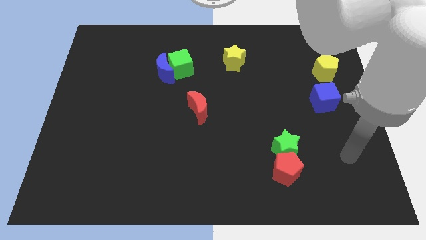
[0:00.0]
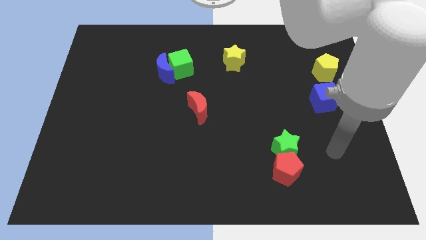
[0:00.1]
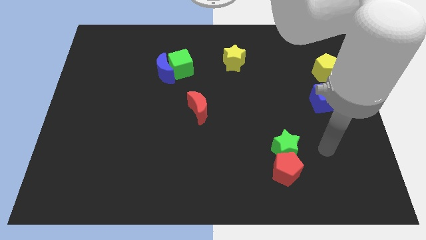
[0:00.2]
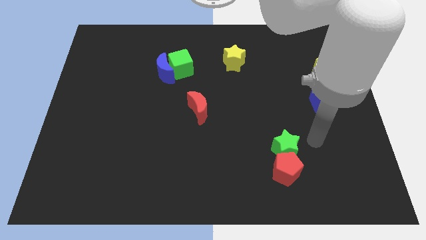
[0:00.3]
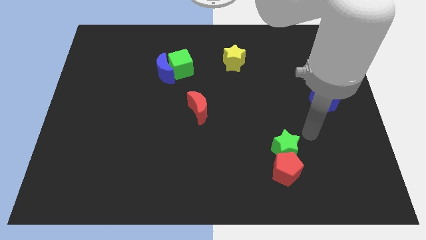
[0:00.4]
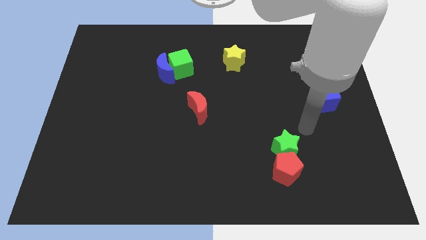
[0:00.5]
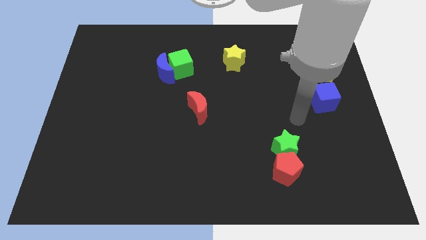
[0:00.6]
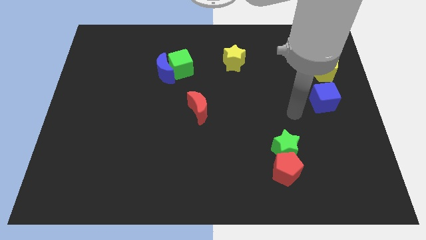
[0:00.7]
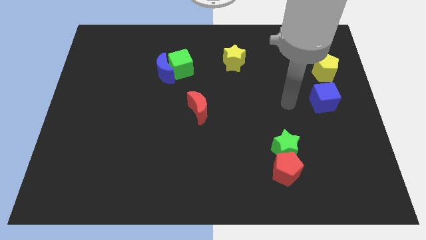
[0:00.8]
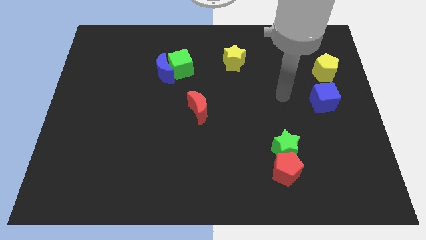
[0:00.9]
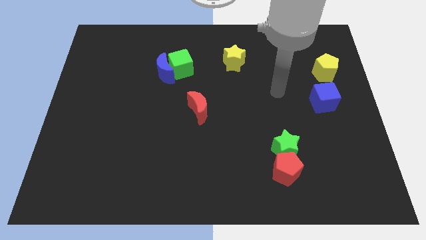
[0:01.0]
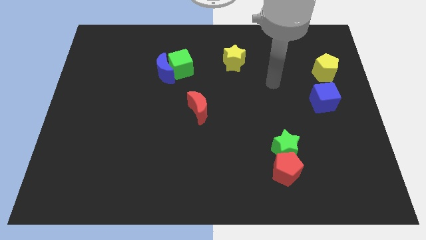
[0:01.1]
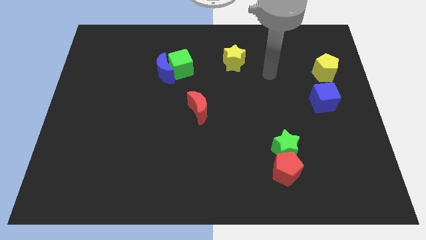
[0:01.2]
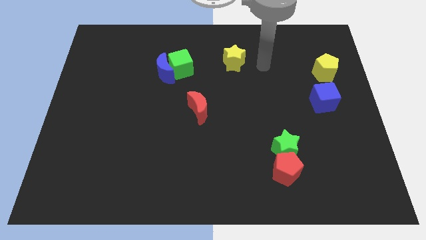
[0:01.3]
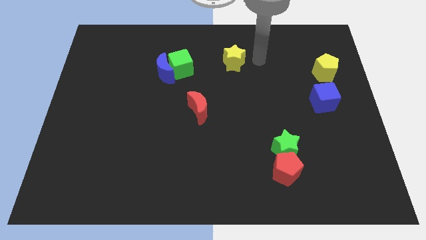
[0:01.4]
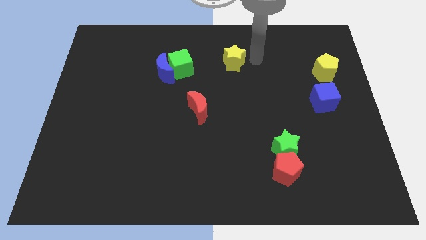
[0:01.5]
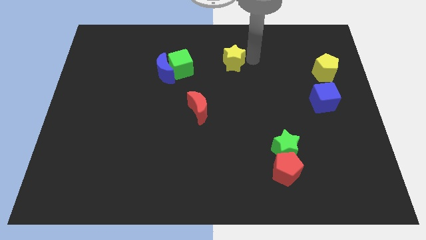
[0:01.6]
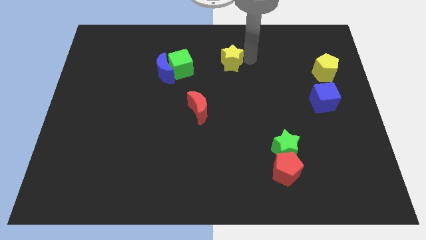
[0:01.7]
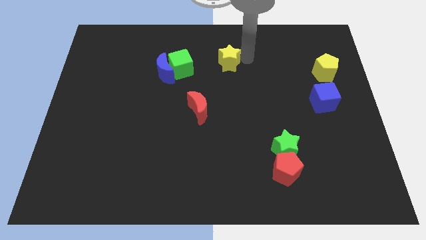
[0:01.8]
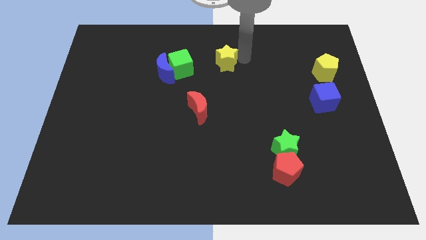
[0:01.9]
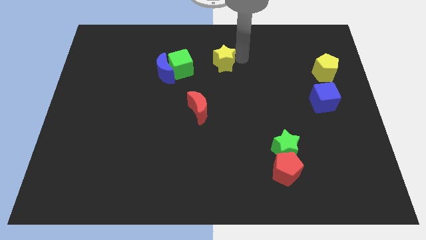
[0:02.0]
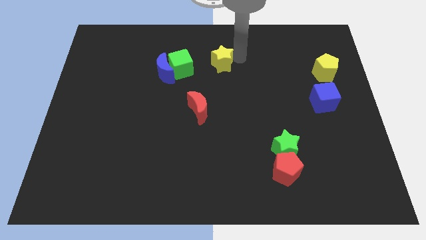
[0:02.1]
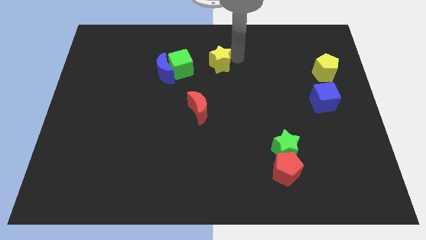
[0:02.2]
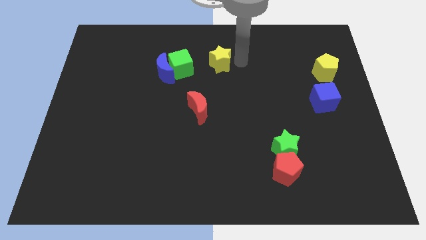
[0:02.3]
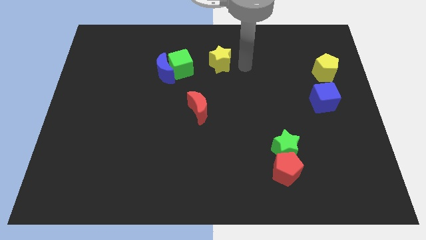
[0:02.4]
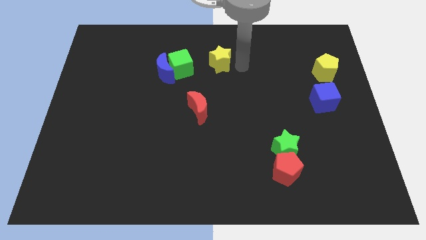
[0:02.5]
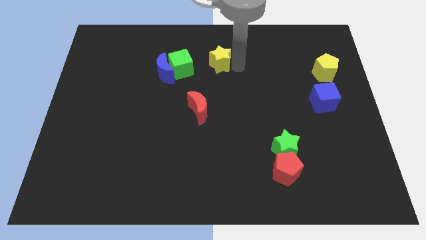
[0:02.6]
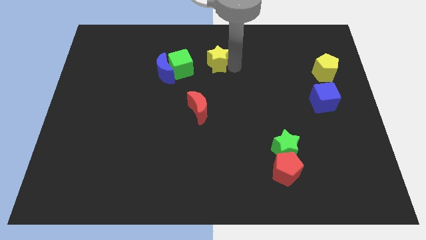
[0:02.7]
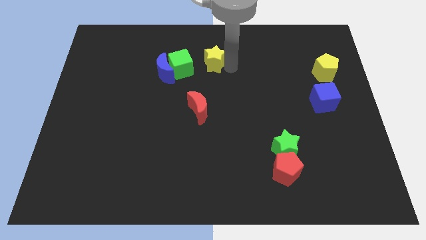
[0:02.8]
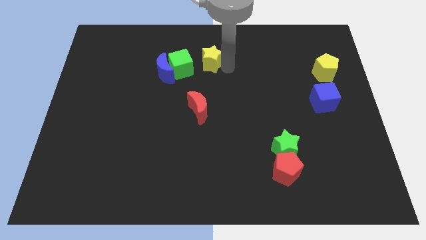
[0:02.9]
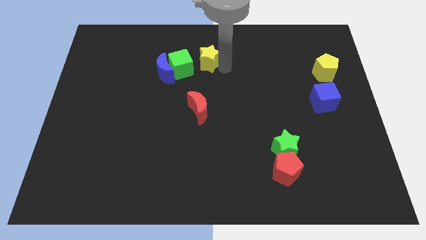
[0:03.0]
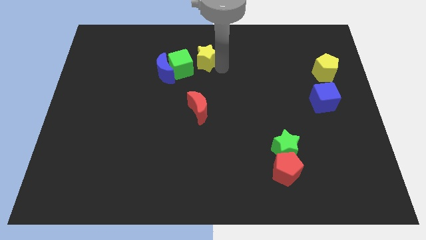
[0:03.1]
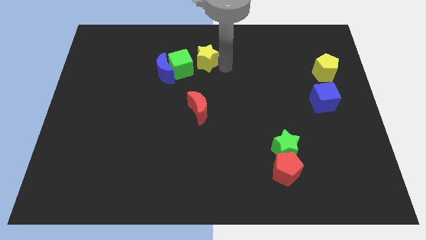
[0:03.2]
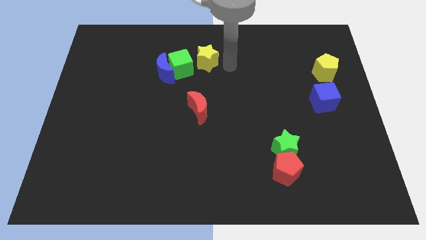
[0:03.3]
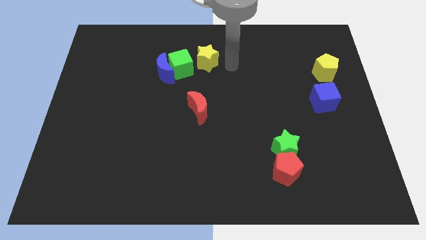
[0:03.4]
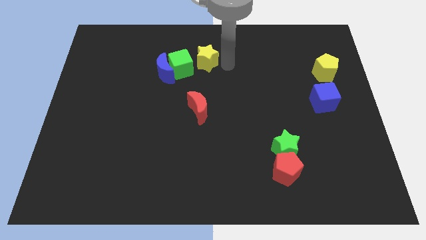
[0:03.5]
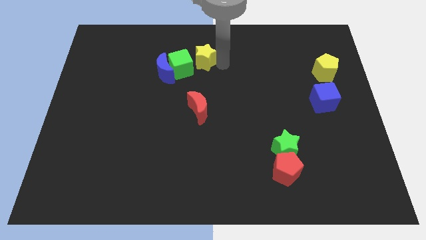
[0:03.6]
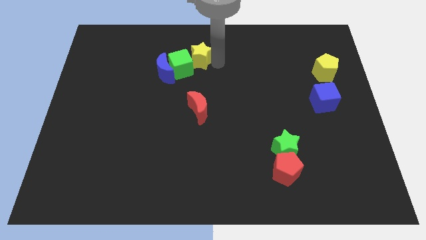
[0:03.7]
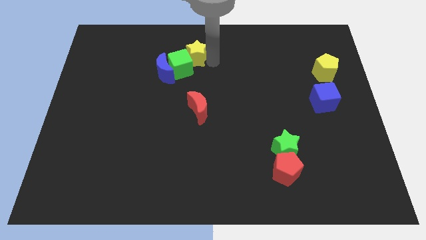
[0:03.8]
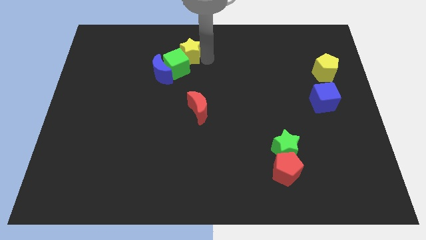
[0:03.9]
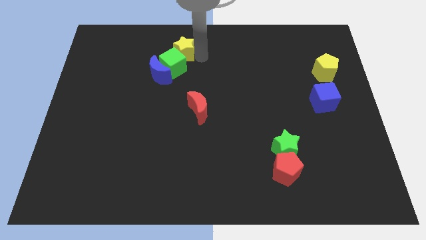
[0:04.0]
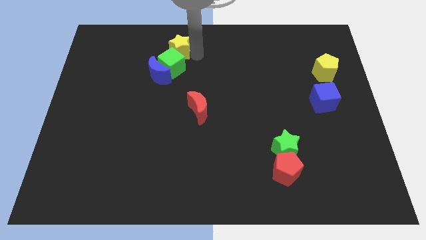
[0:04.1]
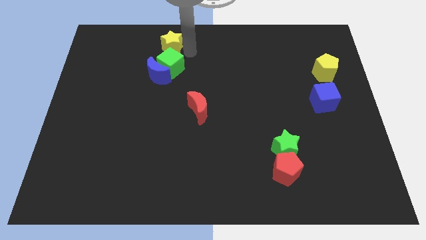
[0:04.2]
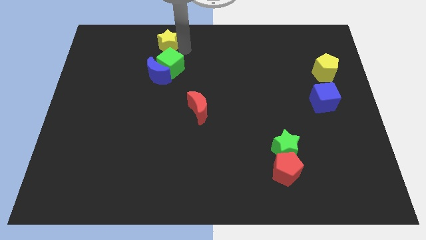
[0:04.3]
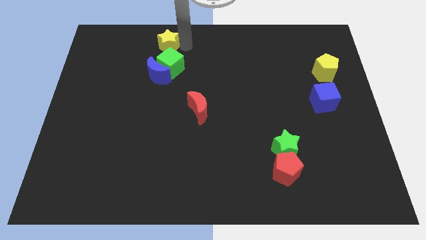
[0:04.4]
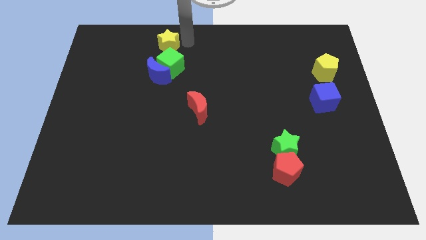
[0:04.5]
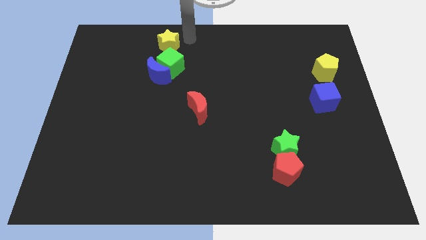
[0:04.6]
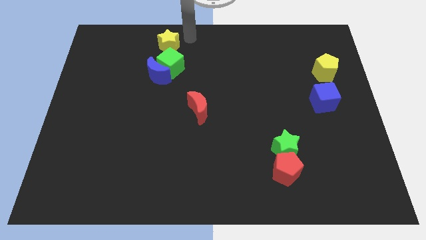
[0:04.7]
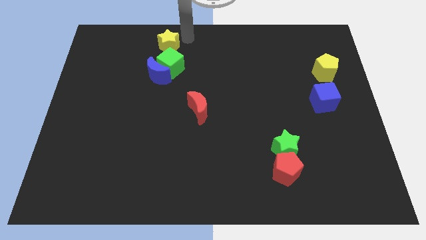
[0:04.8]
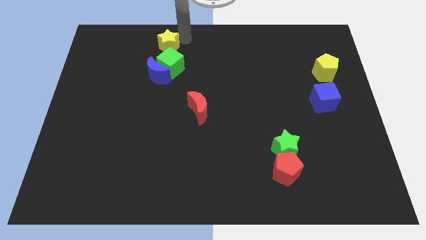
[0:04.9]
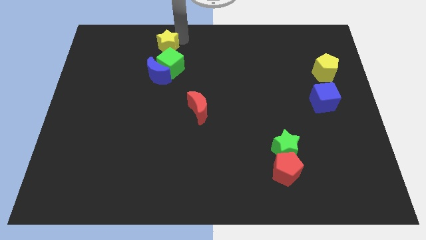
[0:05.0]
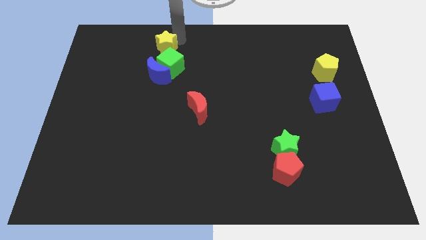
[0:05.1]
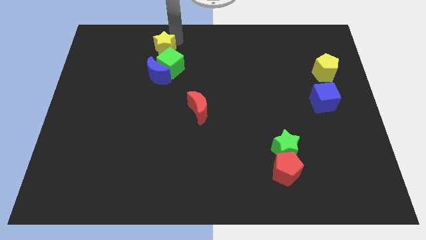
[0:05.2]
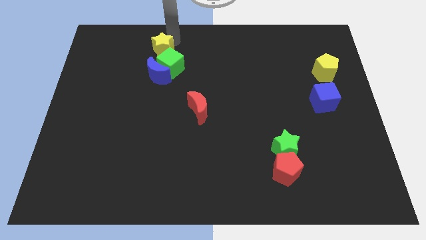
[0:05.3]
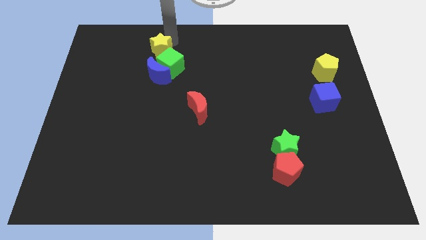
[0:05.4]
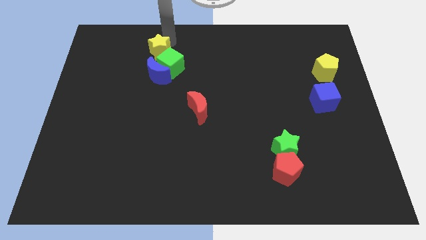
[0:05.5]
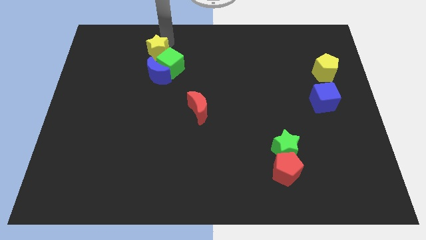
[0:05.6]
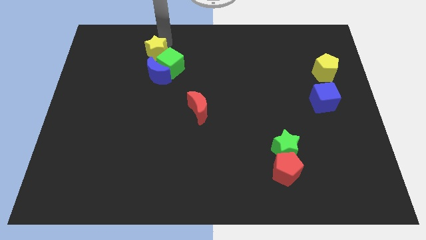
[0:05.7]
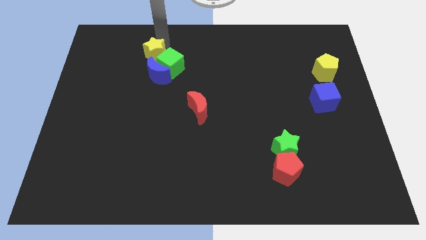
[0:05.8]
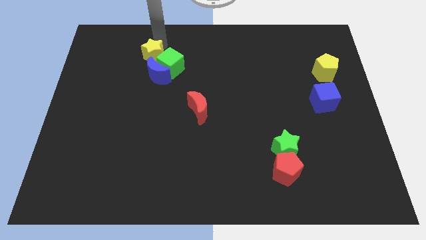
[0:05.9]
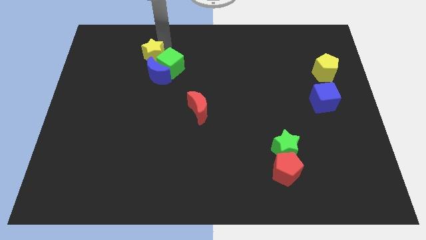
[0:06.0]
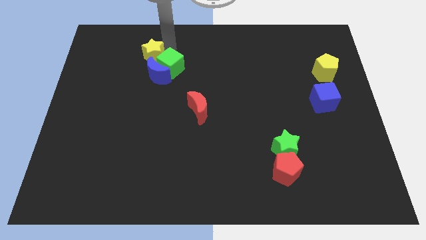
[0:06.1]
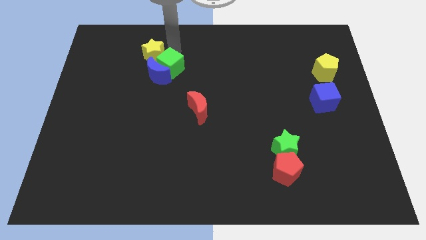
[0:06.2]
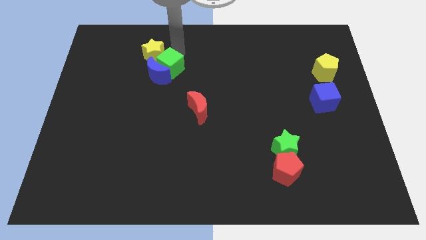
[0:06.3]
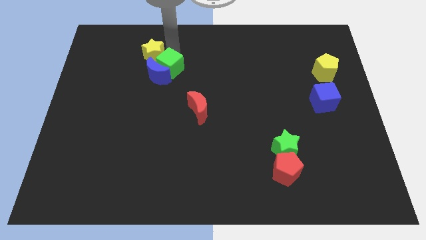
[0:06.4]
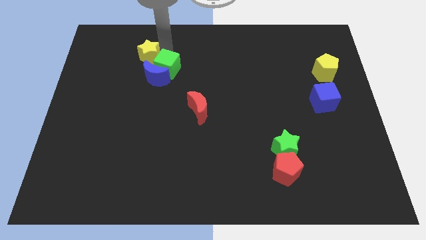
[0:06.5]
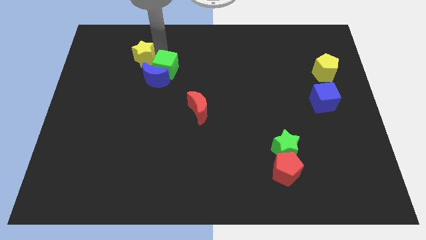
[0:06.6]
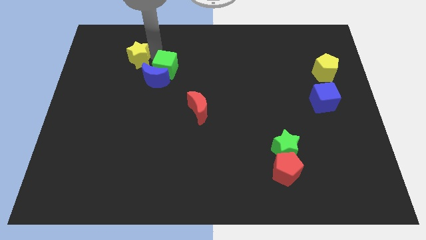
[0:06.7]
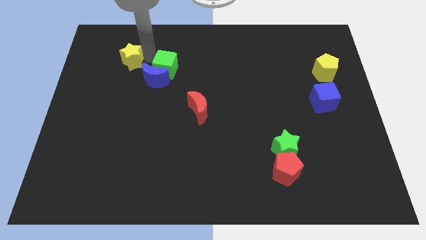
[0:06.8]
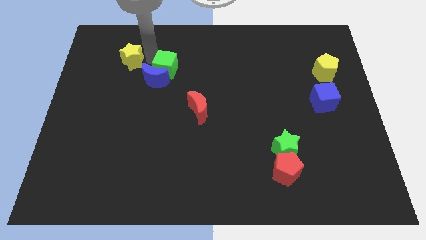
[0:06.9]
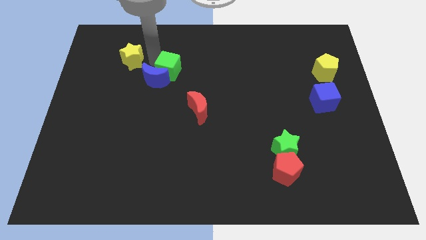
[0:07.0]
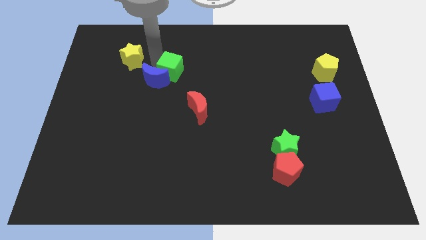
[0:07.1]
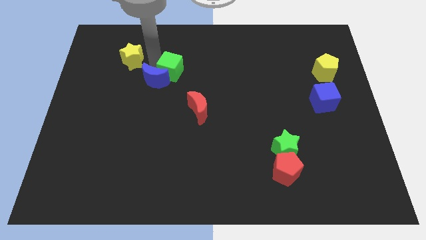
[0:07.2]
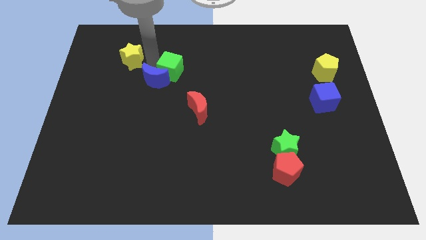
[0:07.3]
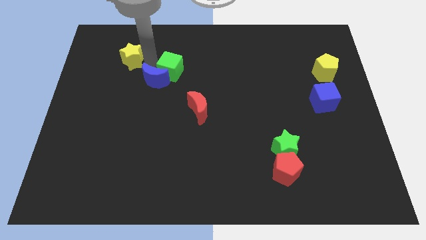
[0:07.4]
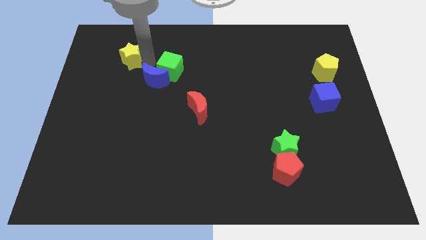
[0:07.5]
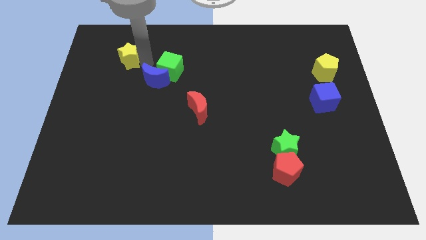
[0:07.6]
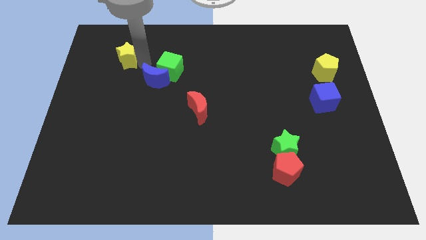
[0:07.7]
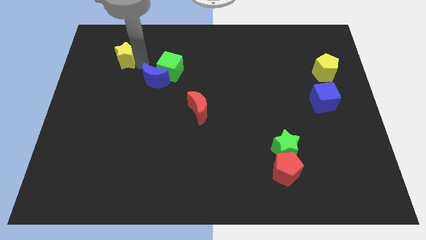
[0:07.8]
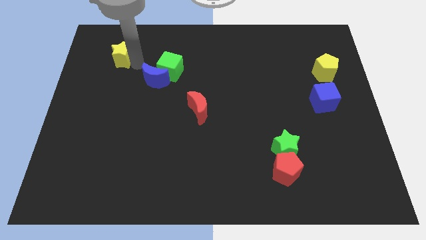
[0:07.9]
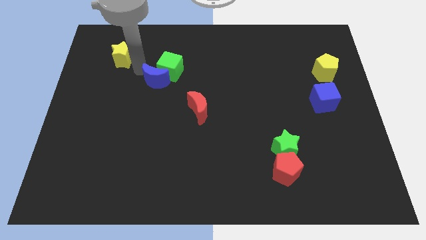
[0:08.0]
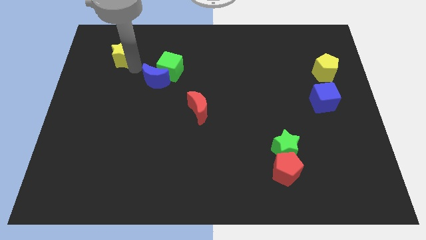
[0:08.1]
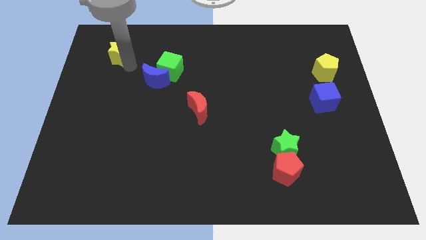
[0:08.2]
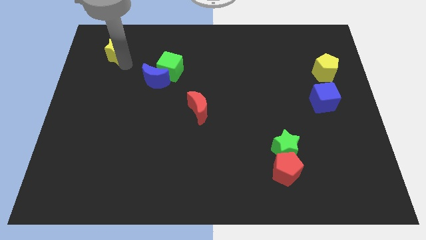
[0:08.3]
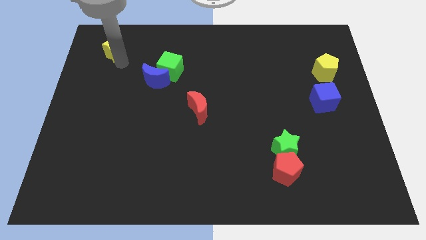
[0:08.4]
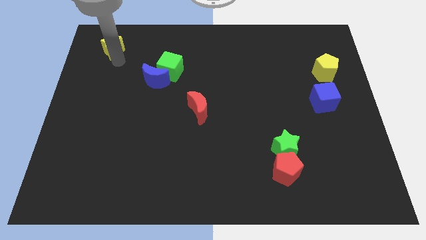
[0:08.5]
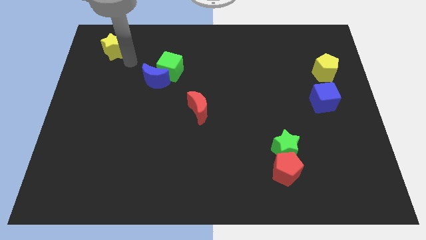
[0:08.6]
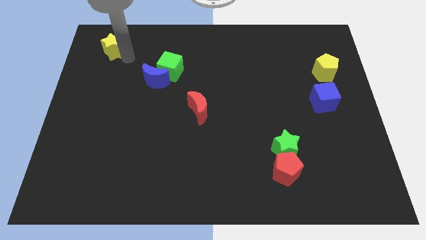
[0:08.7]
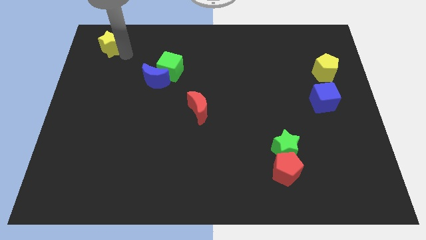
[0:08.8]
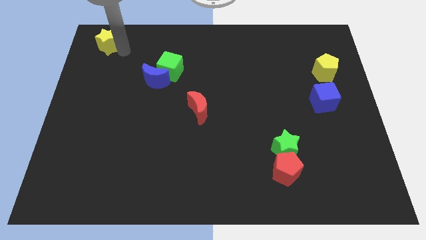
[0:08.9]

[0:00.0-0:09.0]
put the yellow star to the upper left corner
